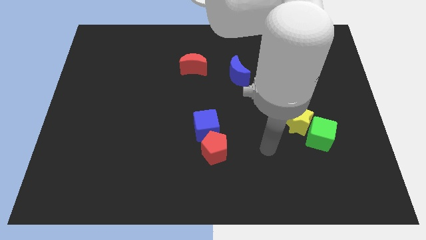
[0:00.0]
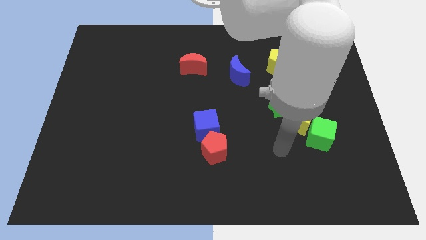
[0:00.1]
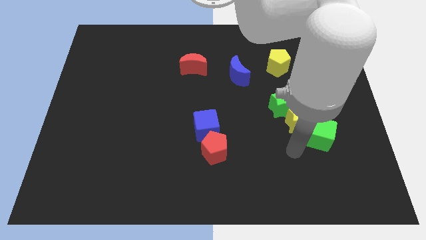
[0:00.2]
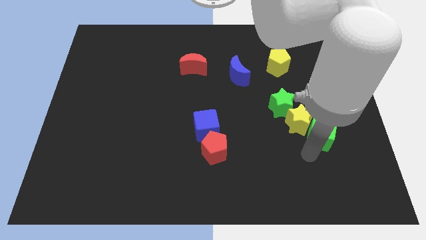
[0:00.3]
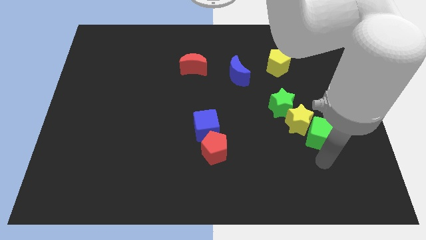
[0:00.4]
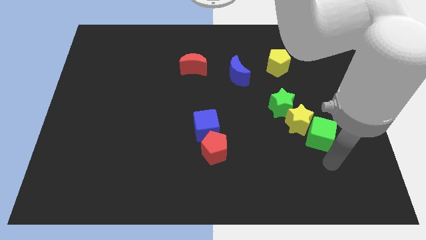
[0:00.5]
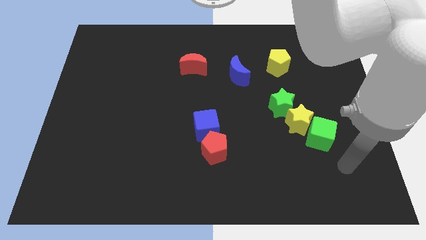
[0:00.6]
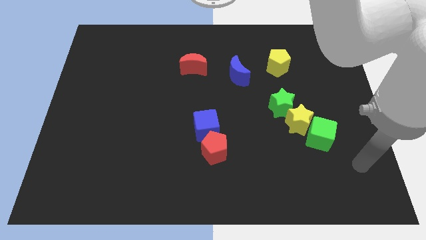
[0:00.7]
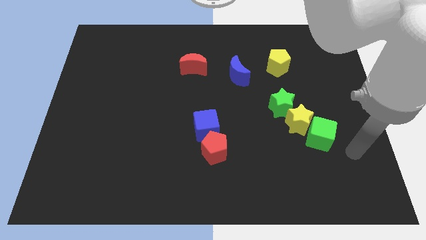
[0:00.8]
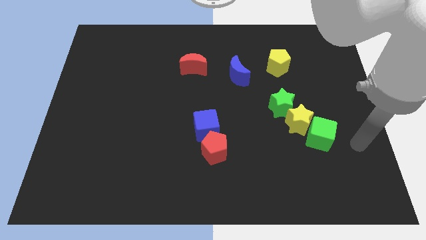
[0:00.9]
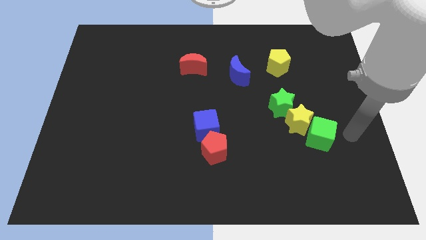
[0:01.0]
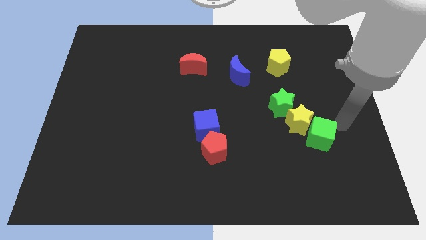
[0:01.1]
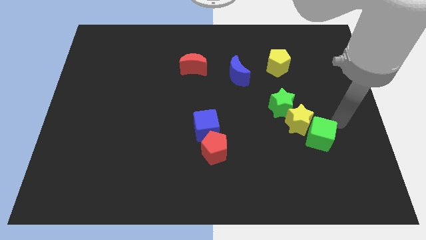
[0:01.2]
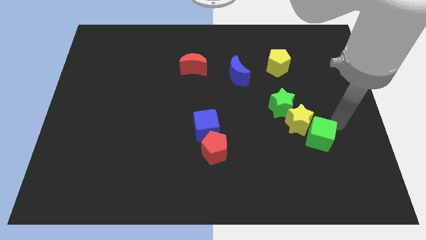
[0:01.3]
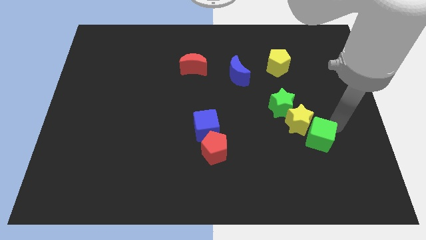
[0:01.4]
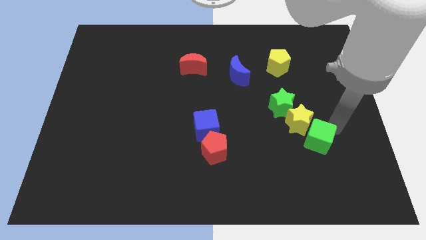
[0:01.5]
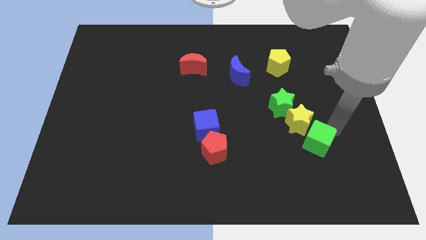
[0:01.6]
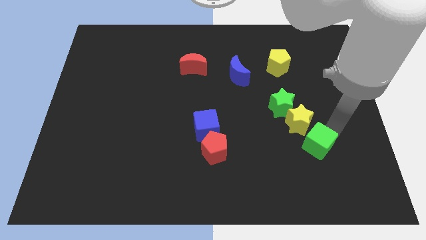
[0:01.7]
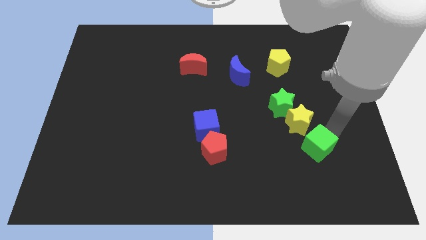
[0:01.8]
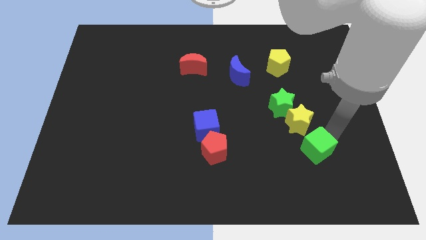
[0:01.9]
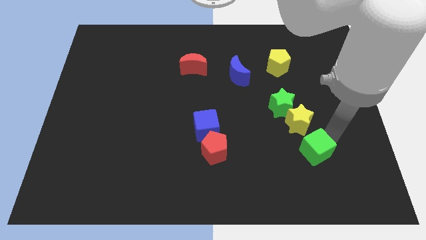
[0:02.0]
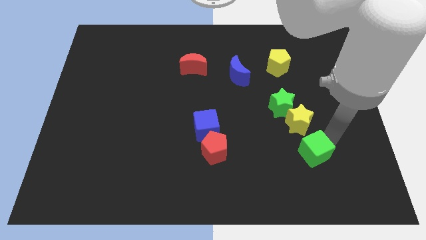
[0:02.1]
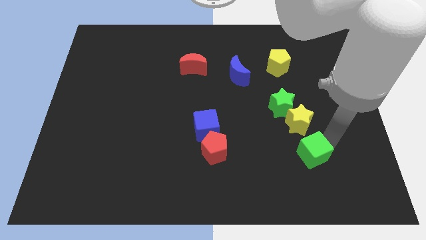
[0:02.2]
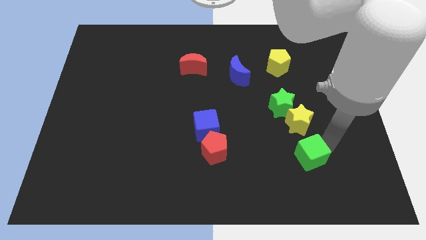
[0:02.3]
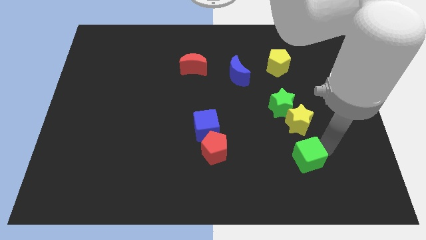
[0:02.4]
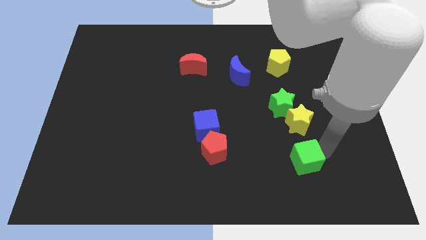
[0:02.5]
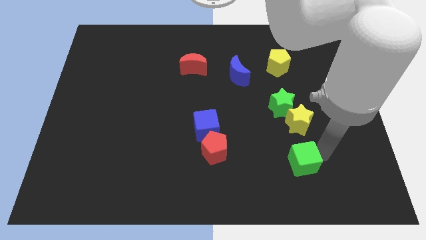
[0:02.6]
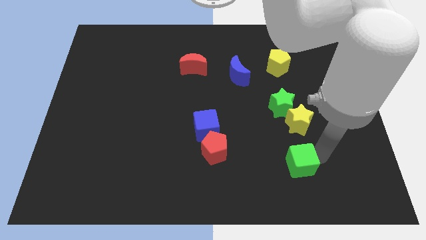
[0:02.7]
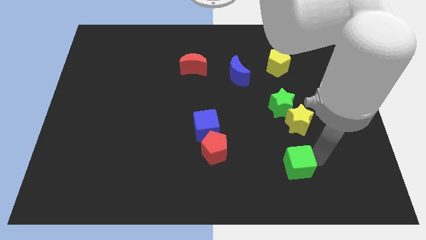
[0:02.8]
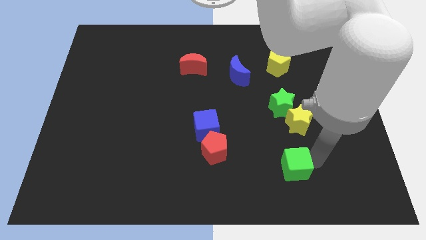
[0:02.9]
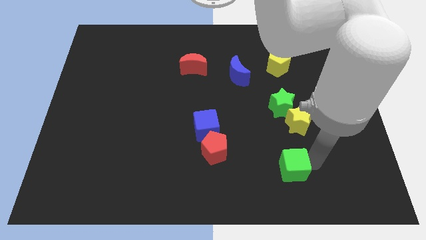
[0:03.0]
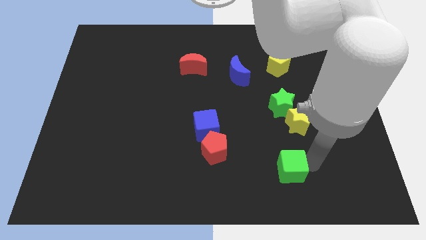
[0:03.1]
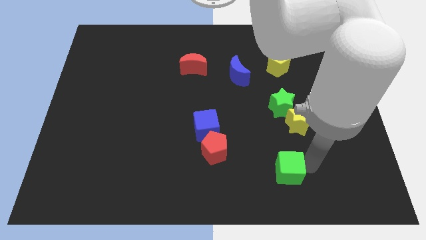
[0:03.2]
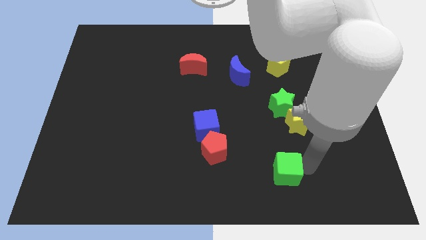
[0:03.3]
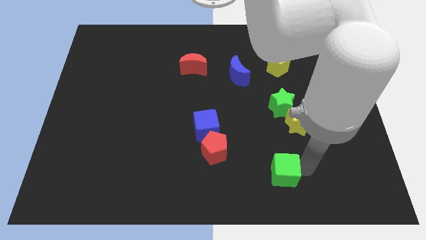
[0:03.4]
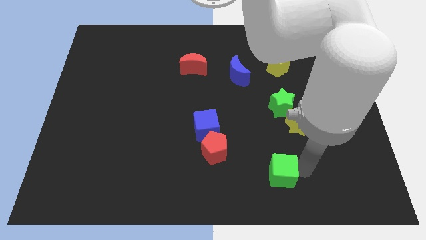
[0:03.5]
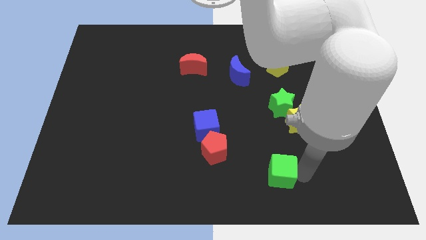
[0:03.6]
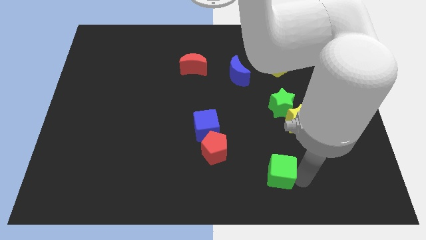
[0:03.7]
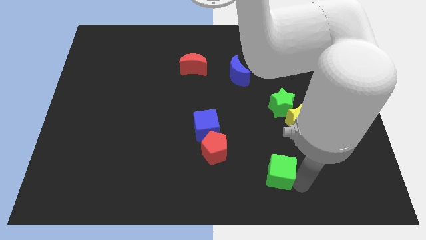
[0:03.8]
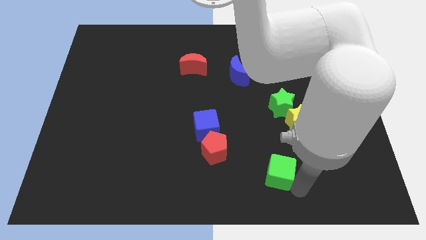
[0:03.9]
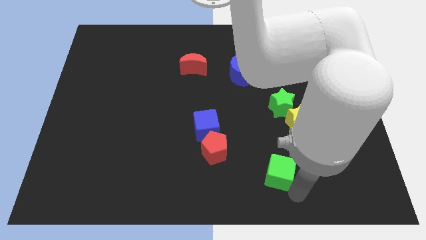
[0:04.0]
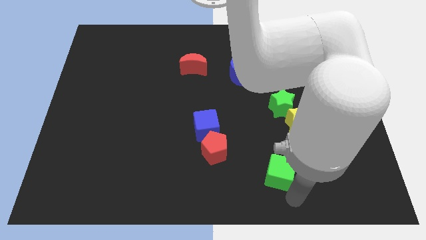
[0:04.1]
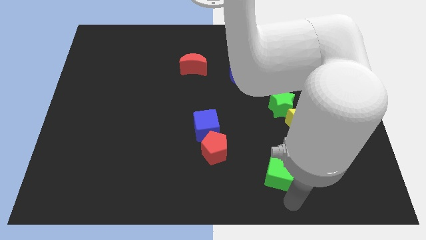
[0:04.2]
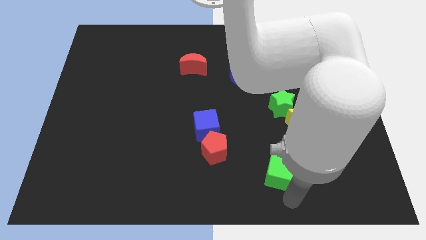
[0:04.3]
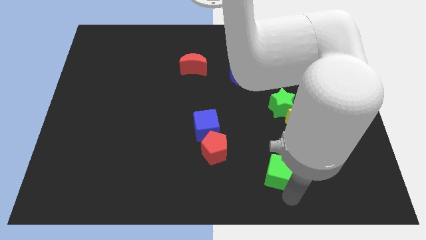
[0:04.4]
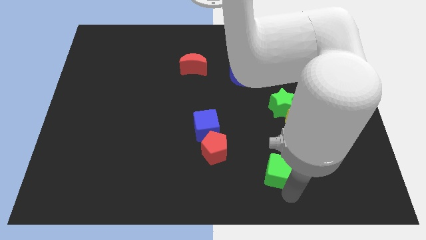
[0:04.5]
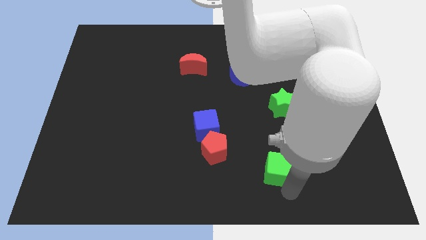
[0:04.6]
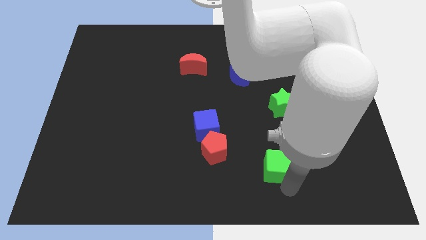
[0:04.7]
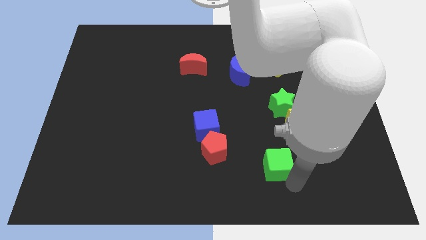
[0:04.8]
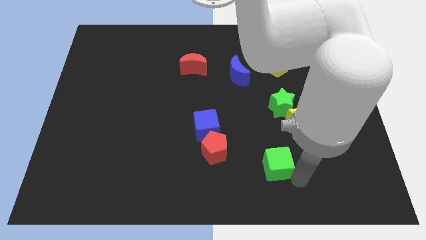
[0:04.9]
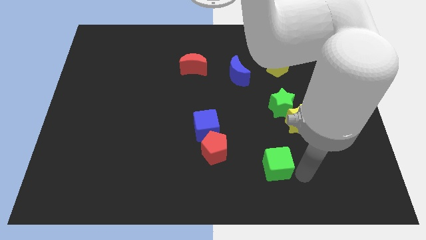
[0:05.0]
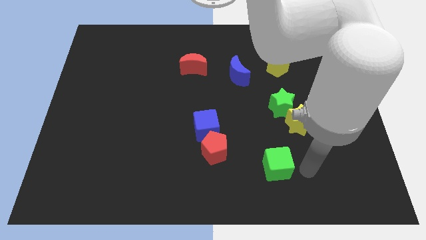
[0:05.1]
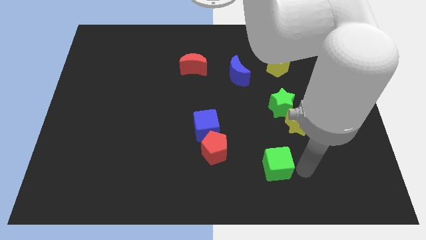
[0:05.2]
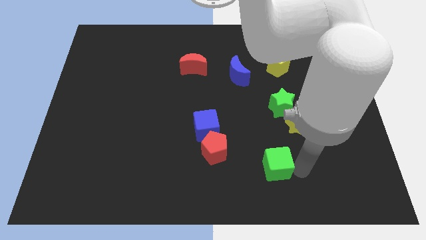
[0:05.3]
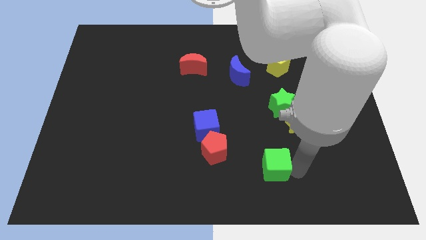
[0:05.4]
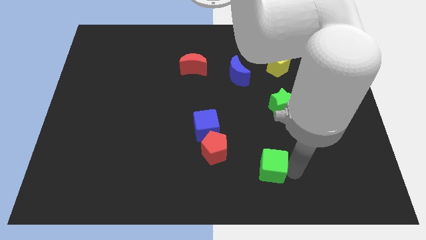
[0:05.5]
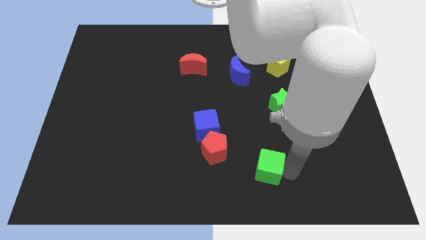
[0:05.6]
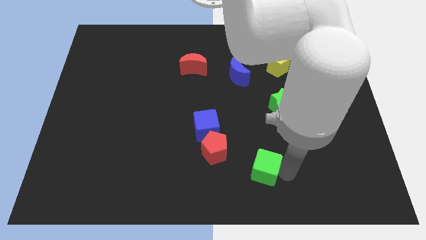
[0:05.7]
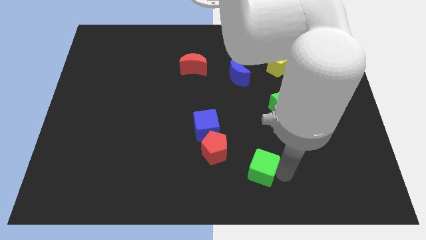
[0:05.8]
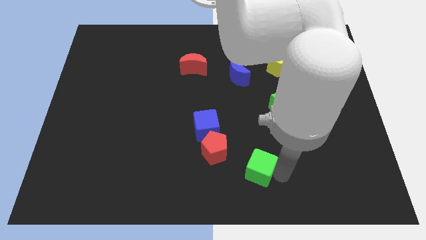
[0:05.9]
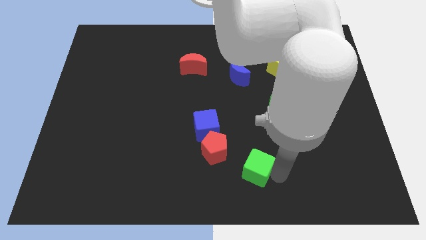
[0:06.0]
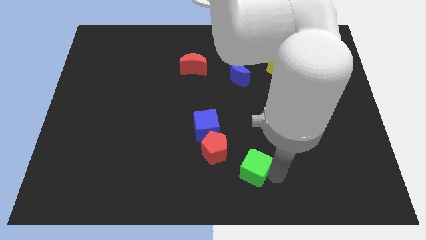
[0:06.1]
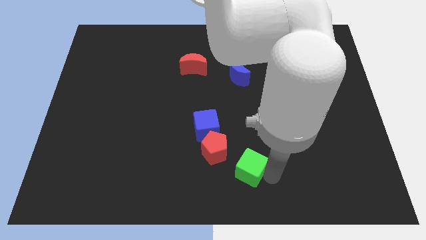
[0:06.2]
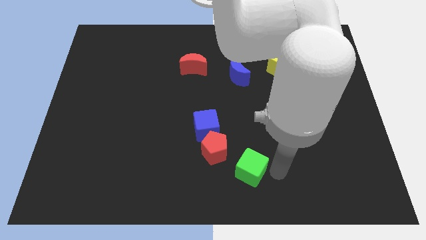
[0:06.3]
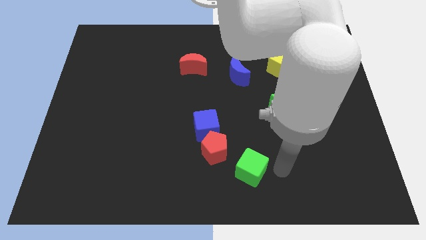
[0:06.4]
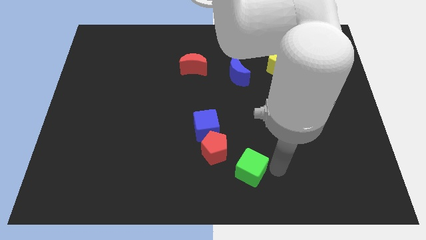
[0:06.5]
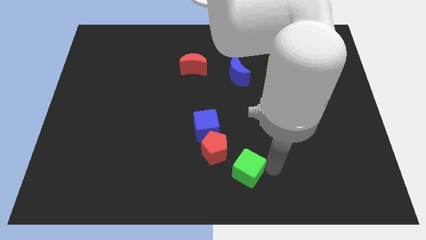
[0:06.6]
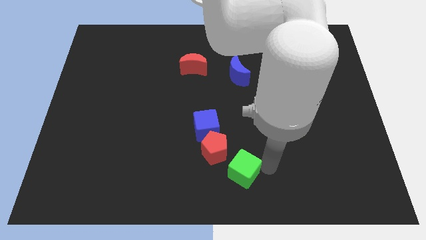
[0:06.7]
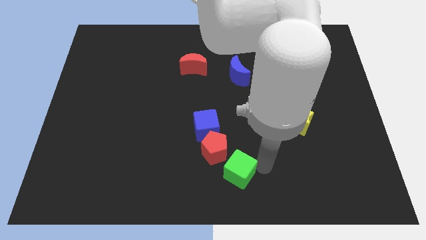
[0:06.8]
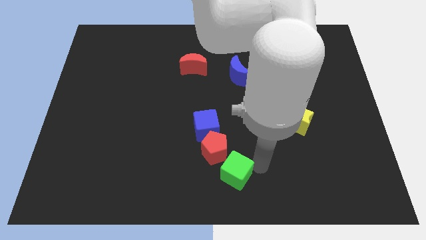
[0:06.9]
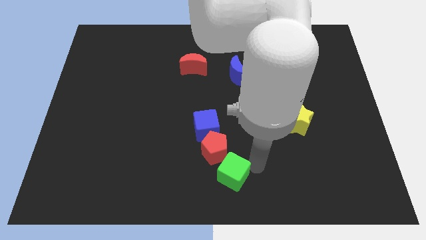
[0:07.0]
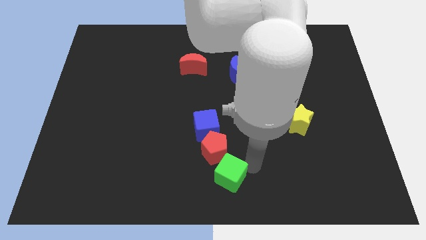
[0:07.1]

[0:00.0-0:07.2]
slide the green cube below the blue cube

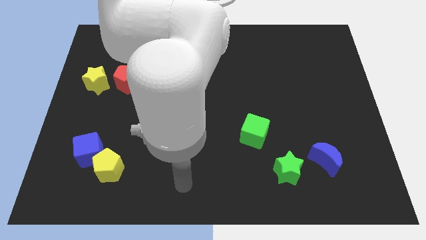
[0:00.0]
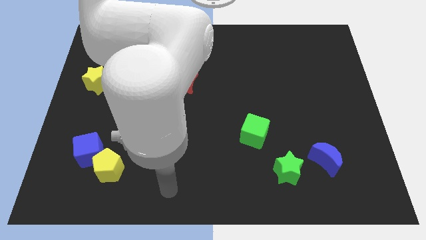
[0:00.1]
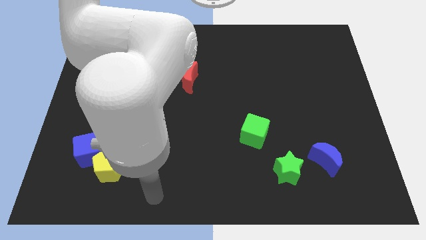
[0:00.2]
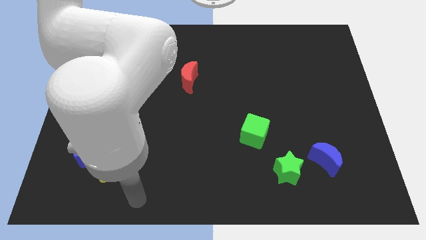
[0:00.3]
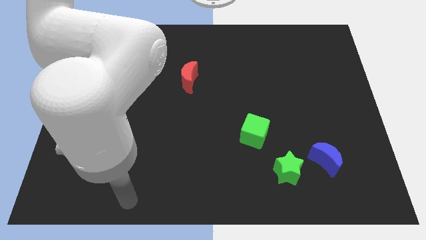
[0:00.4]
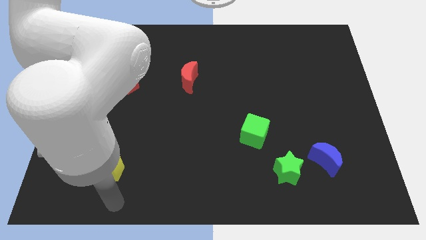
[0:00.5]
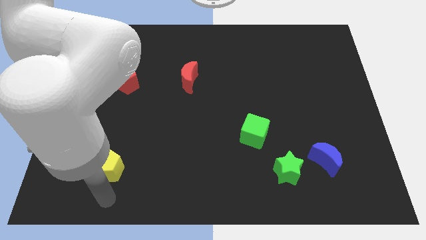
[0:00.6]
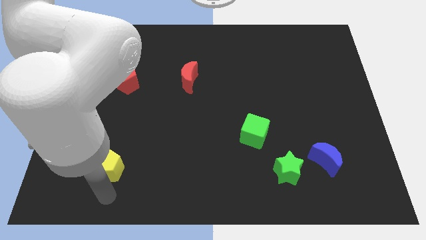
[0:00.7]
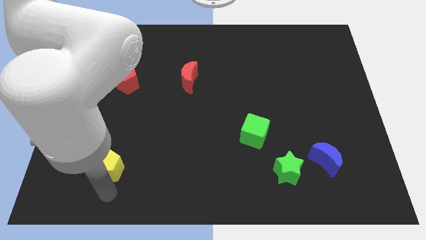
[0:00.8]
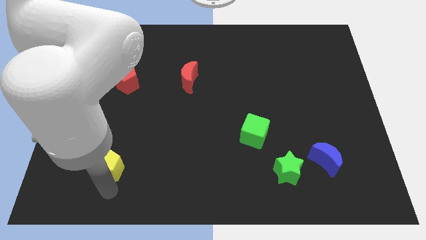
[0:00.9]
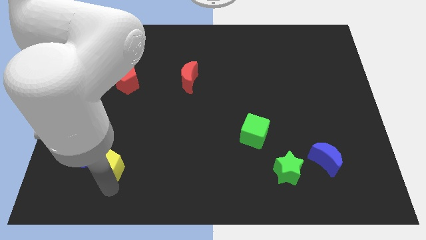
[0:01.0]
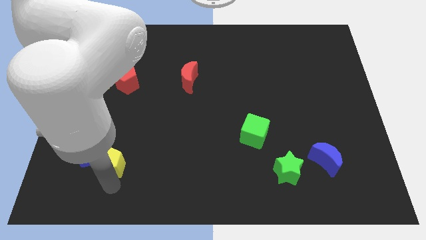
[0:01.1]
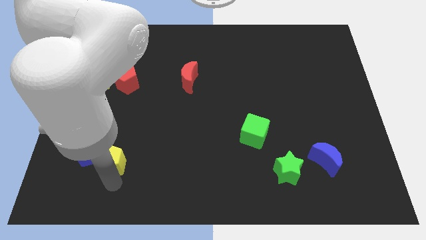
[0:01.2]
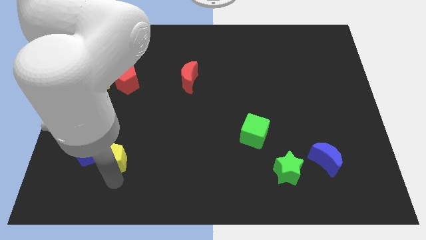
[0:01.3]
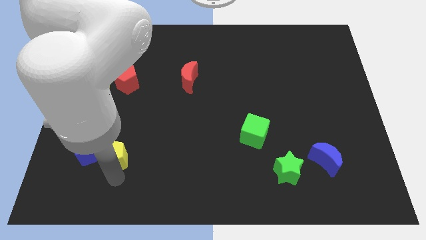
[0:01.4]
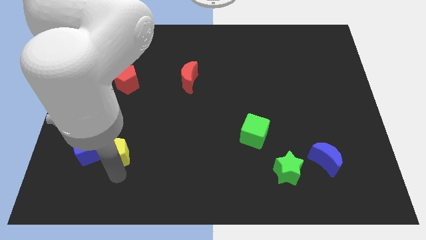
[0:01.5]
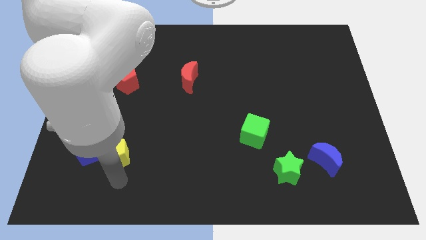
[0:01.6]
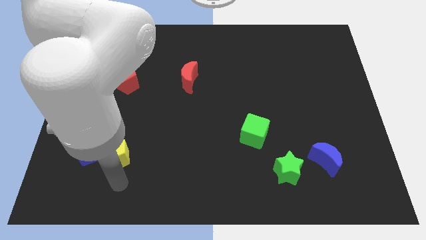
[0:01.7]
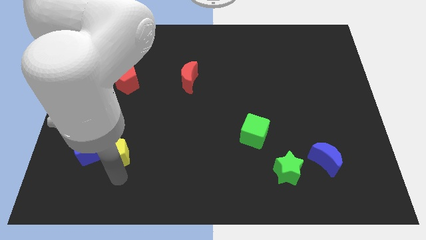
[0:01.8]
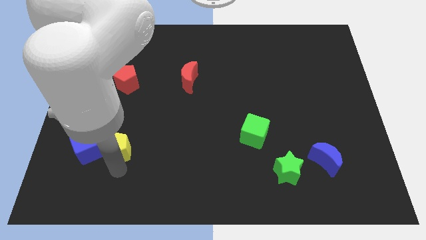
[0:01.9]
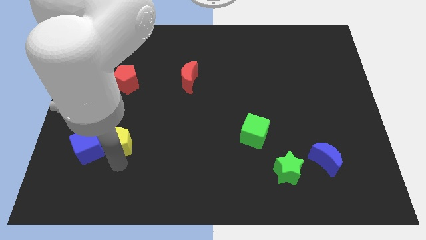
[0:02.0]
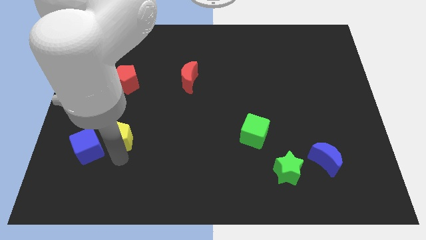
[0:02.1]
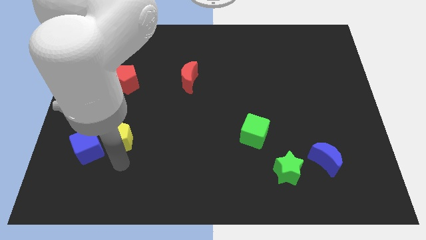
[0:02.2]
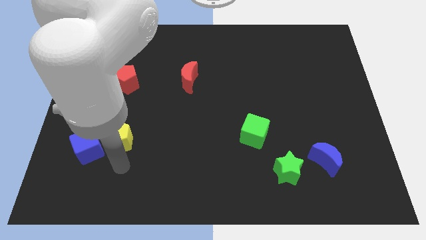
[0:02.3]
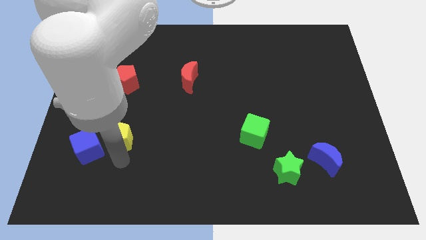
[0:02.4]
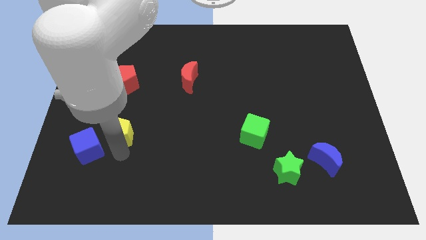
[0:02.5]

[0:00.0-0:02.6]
put the yellow pentagon to the bottom side of the red pentagon
